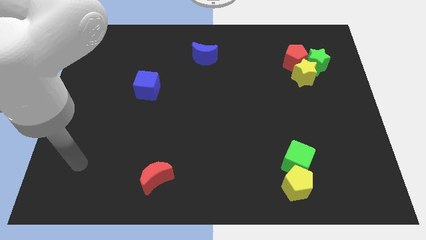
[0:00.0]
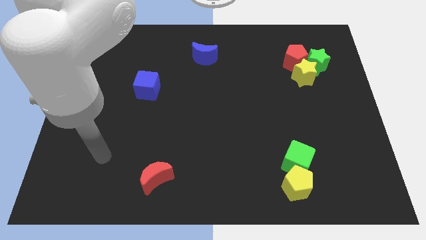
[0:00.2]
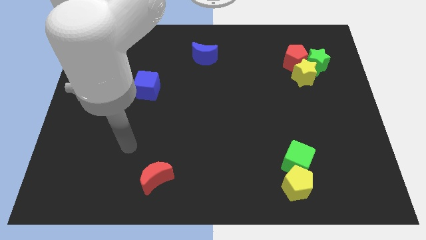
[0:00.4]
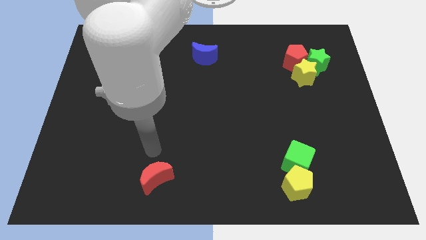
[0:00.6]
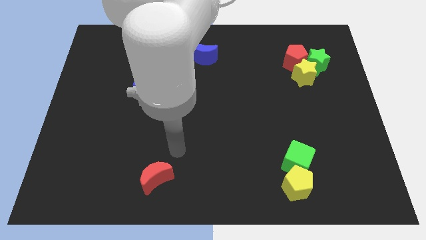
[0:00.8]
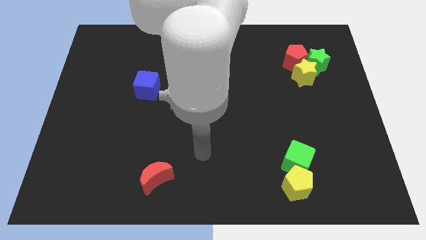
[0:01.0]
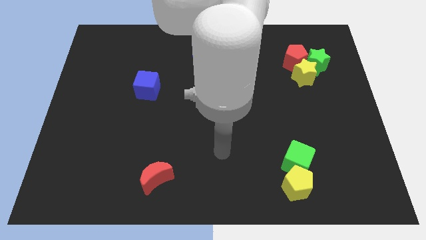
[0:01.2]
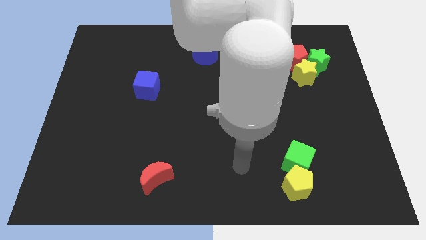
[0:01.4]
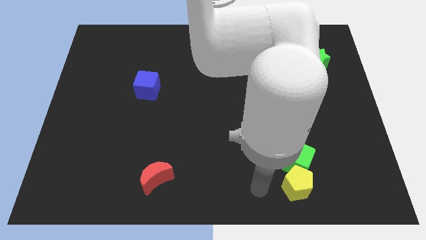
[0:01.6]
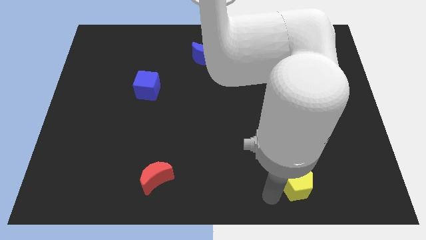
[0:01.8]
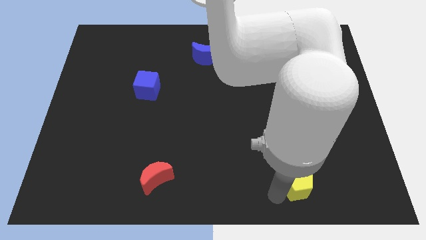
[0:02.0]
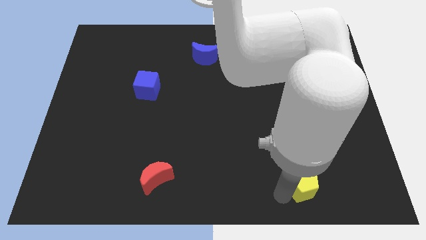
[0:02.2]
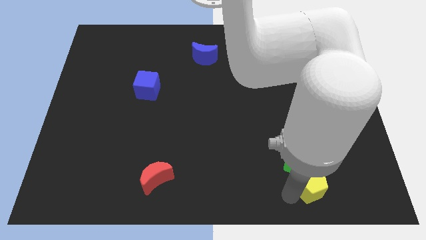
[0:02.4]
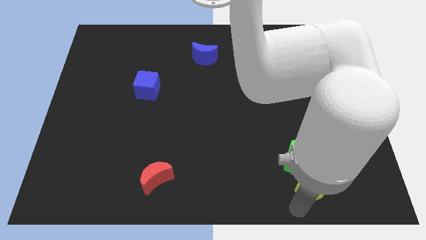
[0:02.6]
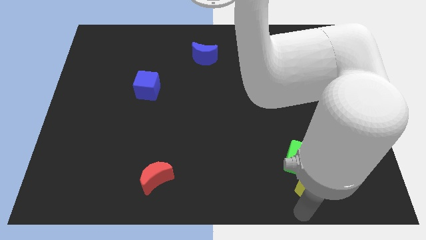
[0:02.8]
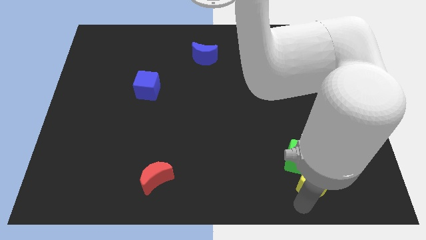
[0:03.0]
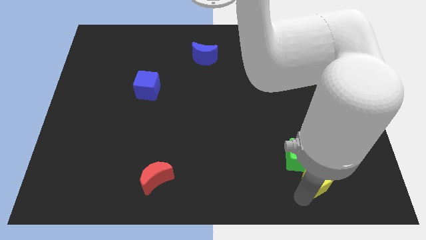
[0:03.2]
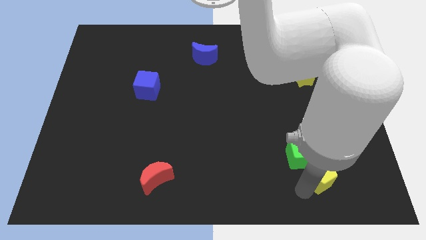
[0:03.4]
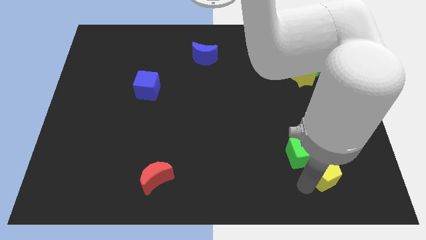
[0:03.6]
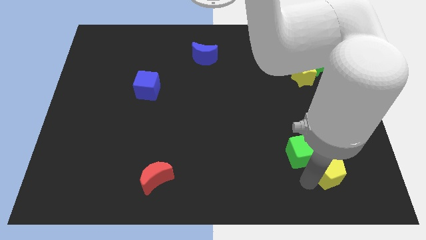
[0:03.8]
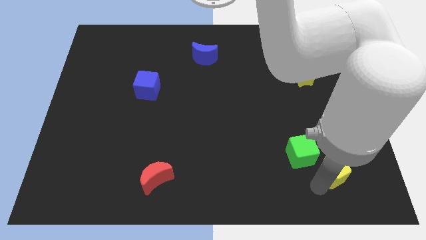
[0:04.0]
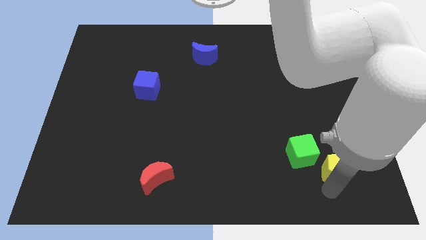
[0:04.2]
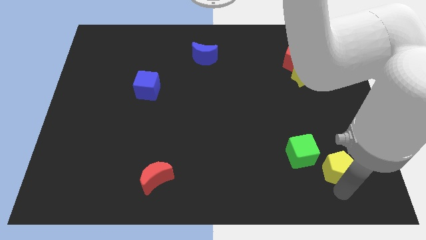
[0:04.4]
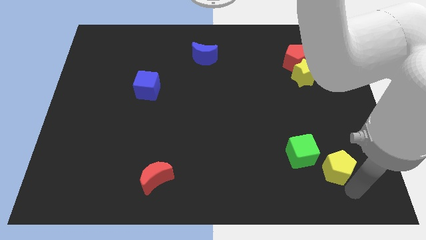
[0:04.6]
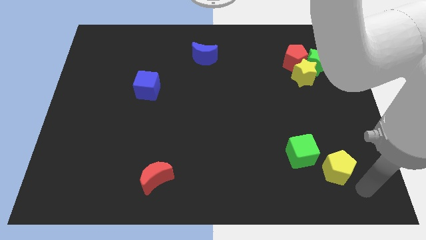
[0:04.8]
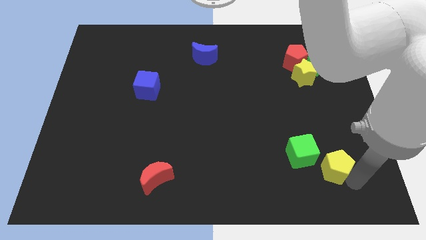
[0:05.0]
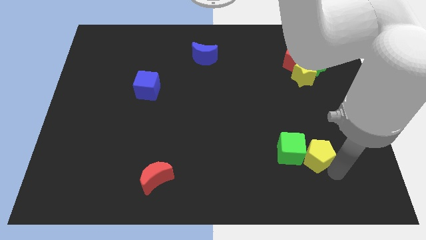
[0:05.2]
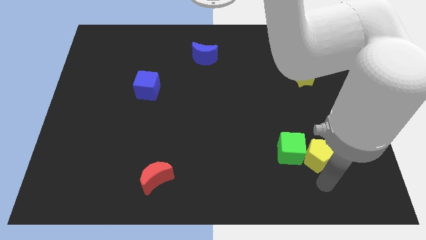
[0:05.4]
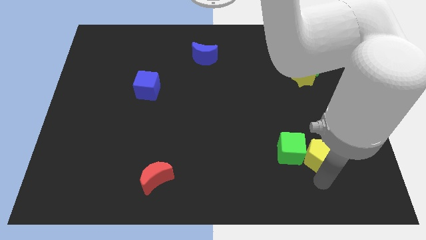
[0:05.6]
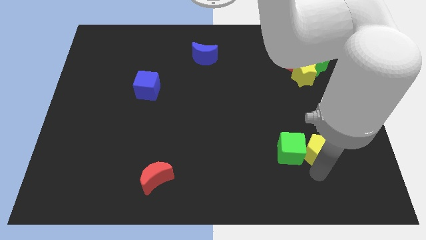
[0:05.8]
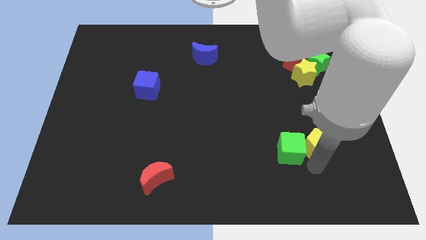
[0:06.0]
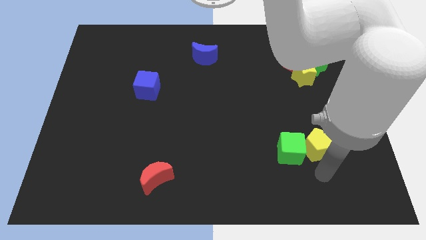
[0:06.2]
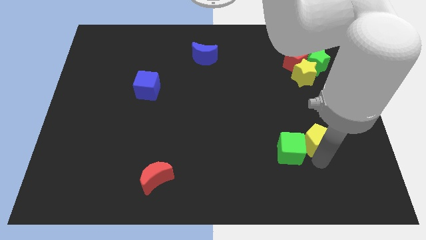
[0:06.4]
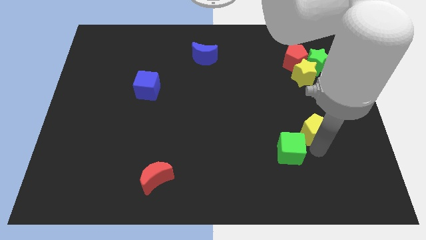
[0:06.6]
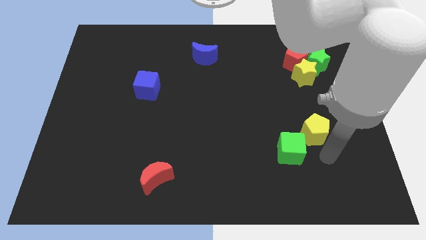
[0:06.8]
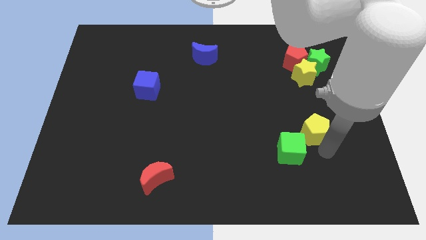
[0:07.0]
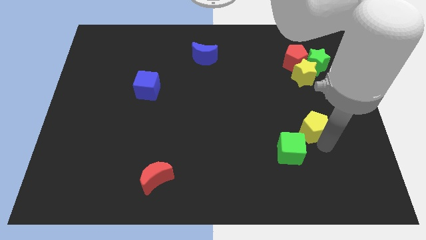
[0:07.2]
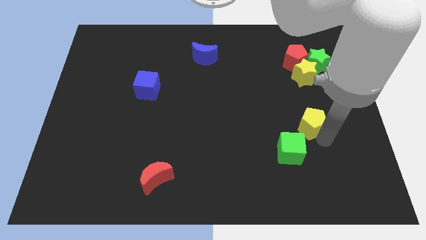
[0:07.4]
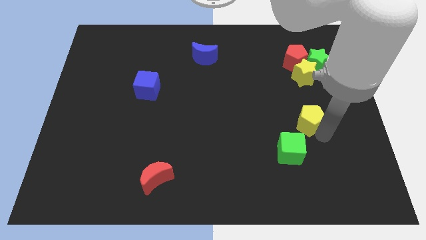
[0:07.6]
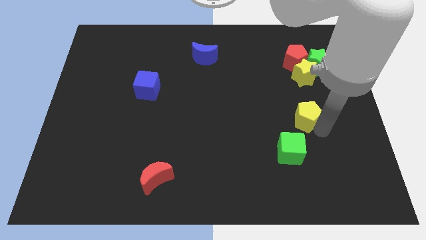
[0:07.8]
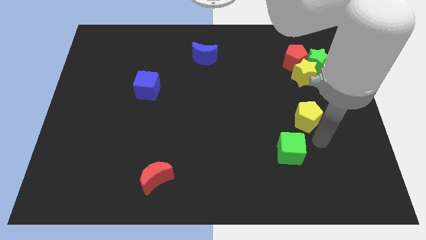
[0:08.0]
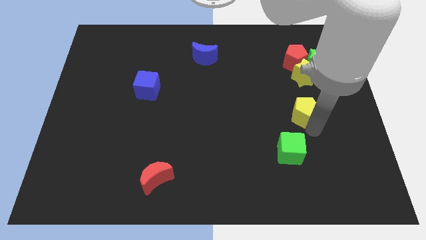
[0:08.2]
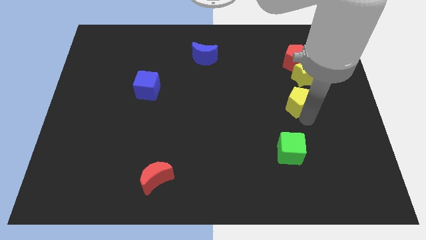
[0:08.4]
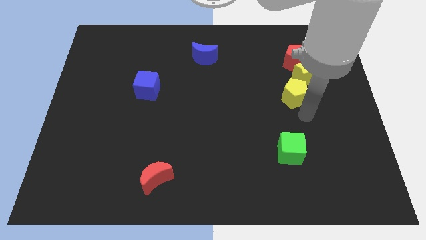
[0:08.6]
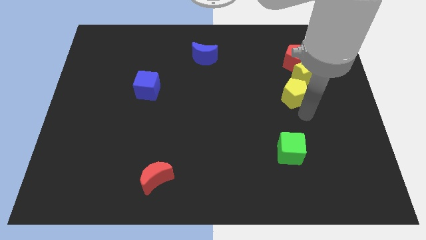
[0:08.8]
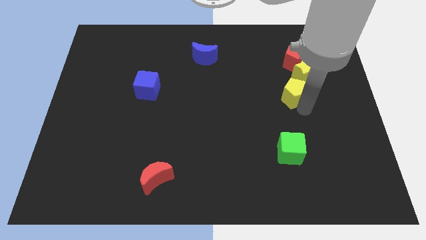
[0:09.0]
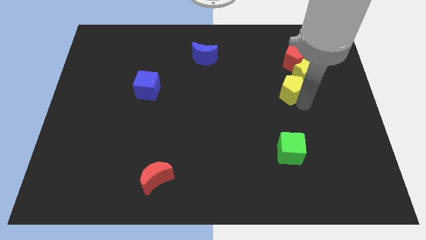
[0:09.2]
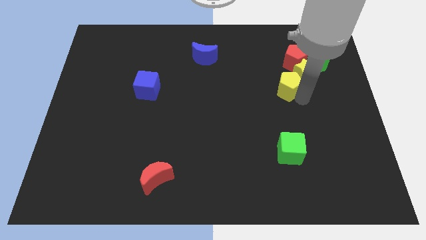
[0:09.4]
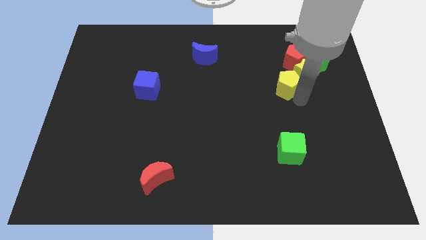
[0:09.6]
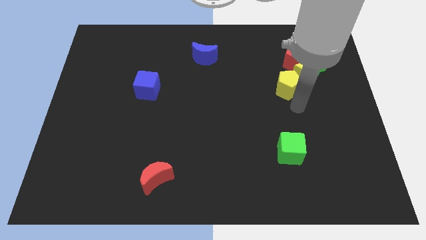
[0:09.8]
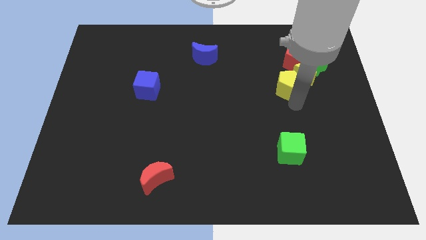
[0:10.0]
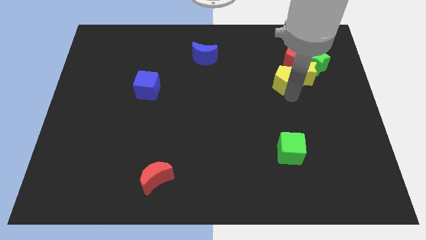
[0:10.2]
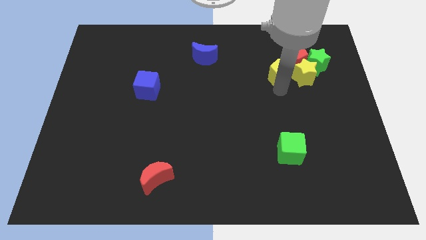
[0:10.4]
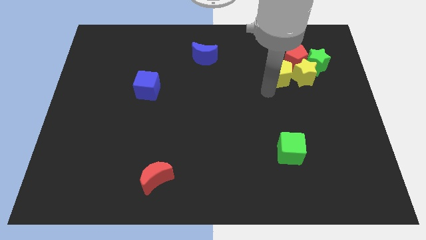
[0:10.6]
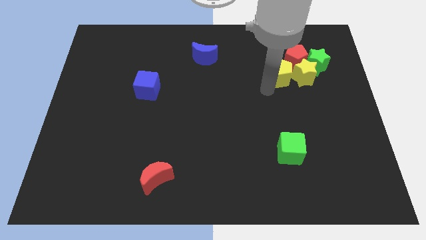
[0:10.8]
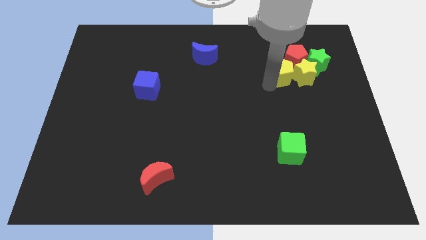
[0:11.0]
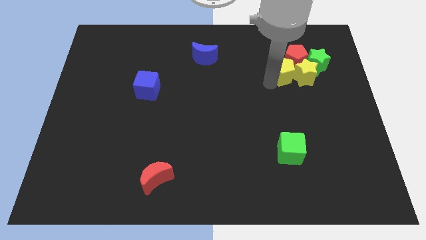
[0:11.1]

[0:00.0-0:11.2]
push the yellow pentagon to the red pentagon

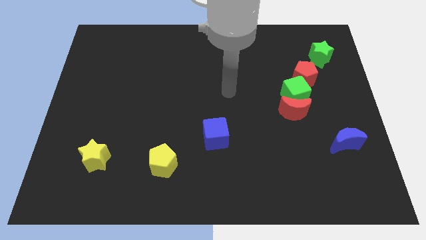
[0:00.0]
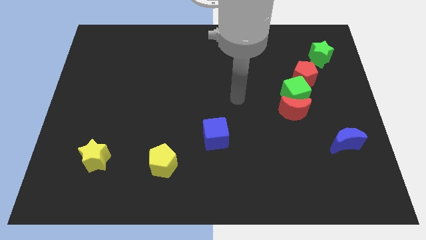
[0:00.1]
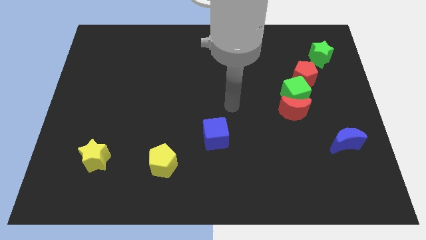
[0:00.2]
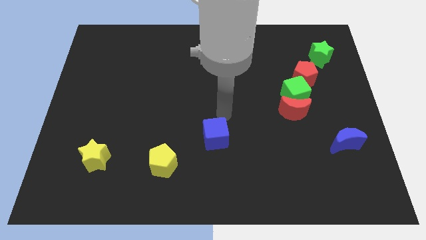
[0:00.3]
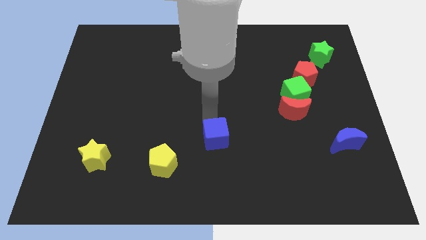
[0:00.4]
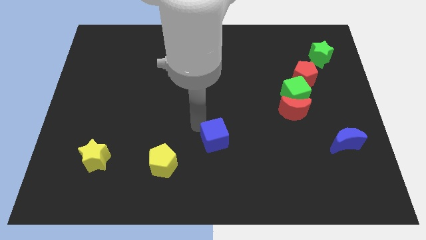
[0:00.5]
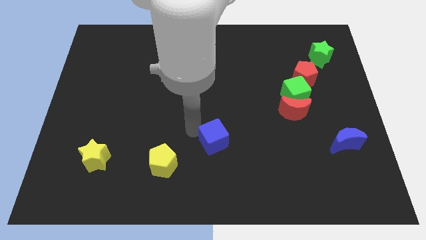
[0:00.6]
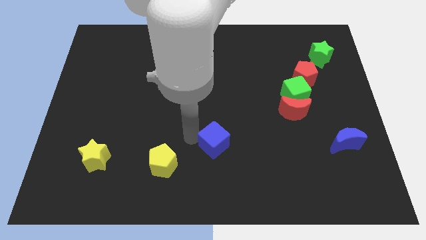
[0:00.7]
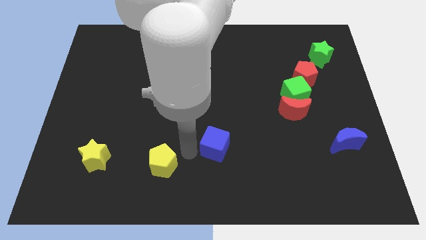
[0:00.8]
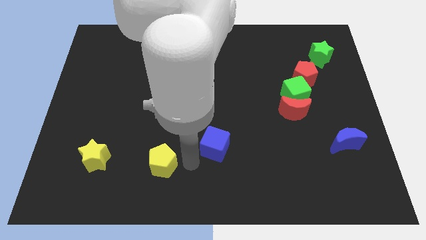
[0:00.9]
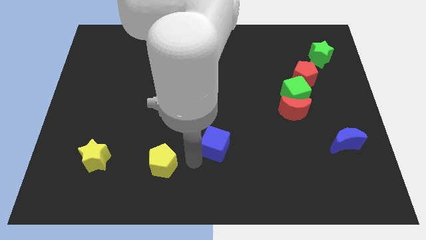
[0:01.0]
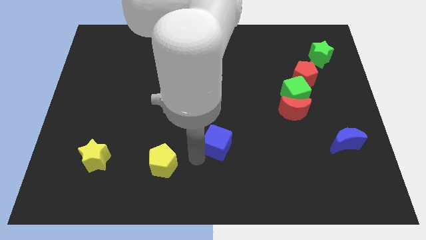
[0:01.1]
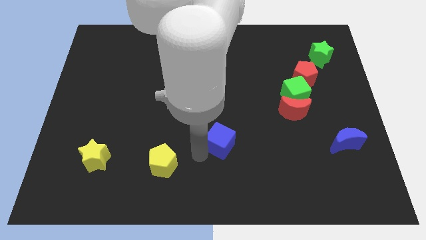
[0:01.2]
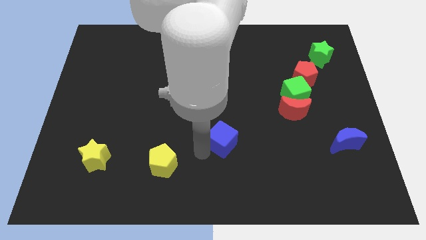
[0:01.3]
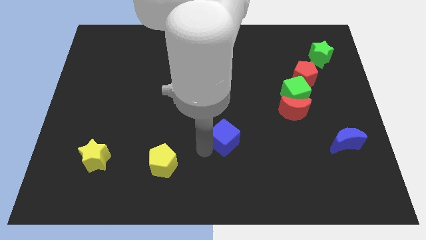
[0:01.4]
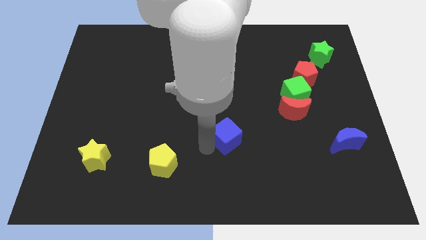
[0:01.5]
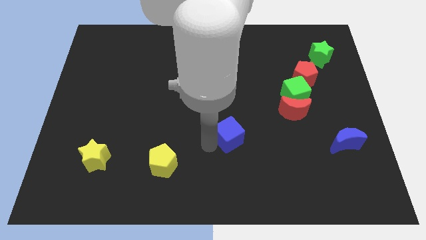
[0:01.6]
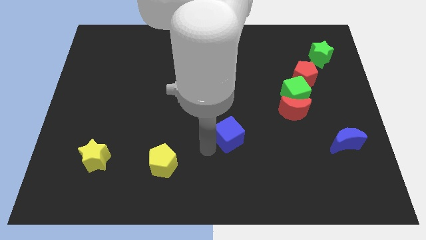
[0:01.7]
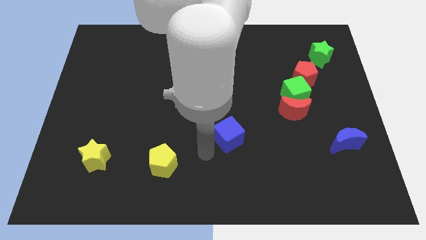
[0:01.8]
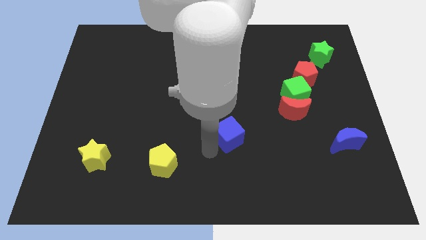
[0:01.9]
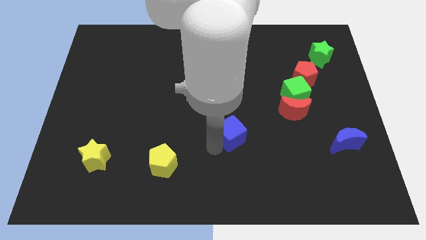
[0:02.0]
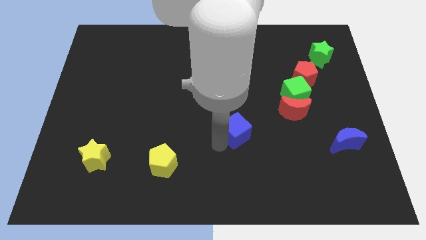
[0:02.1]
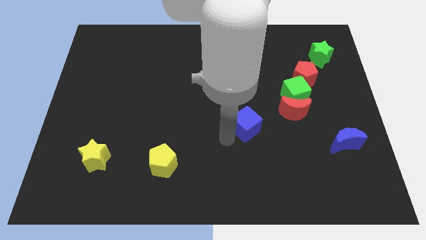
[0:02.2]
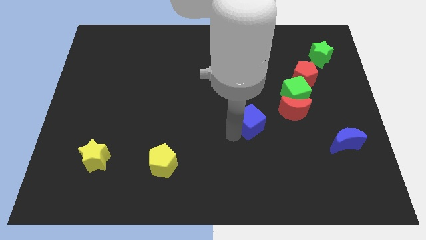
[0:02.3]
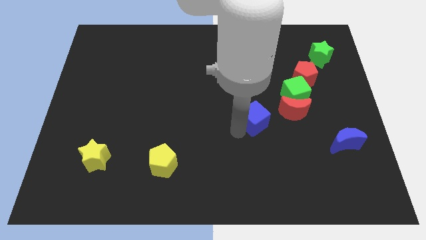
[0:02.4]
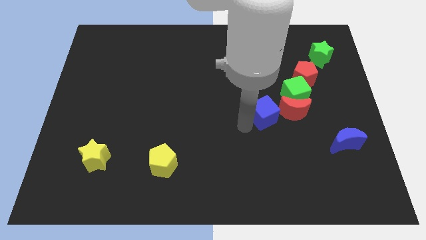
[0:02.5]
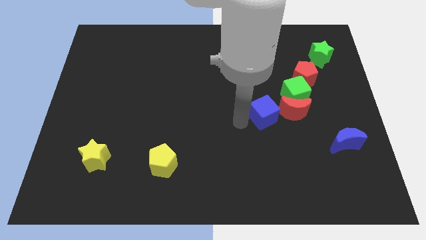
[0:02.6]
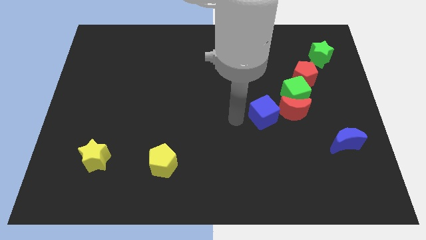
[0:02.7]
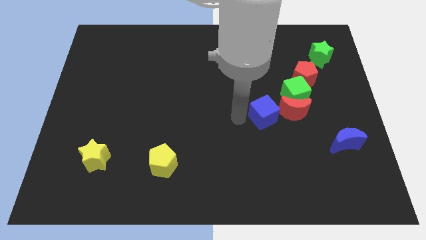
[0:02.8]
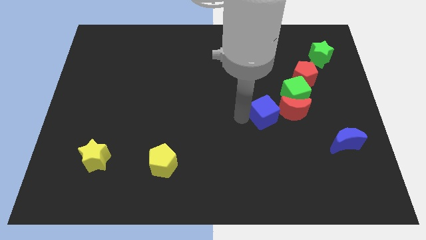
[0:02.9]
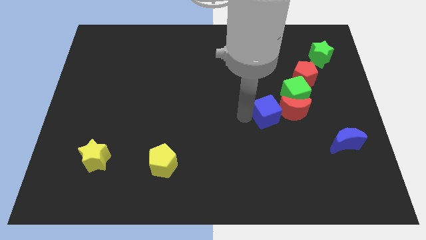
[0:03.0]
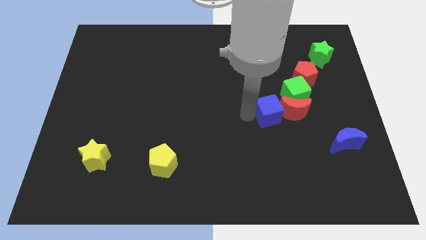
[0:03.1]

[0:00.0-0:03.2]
push the blue cube to the red moon
